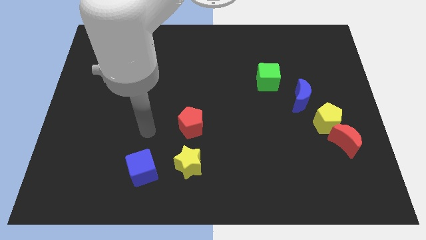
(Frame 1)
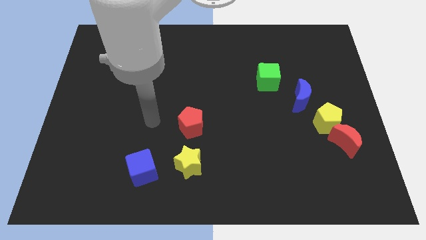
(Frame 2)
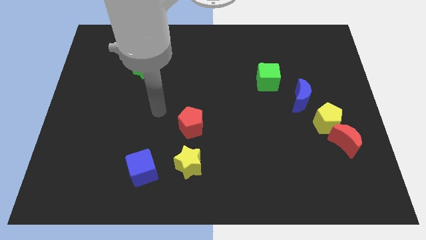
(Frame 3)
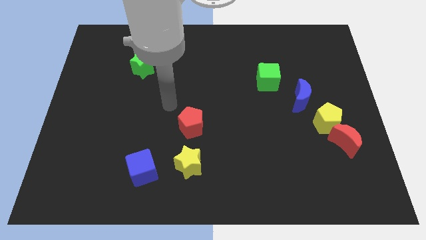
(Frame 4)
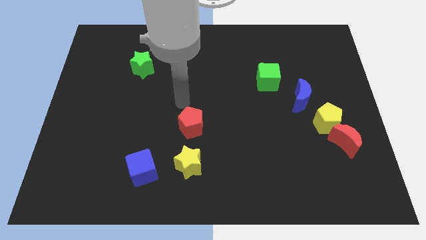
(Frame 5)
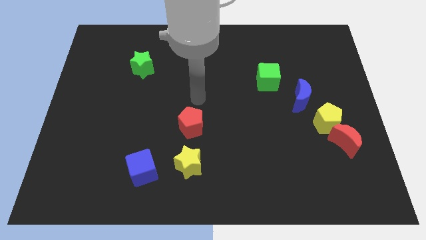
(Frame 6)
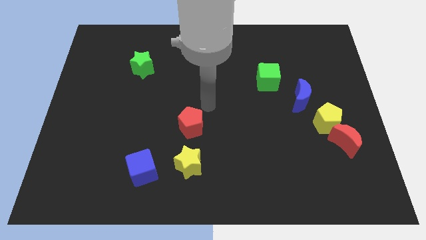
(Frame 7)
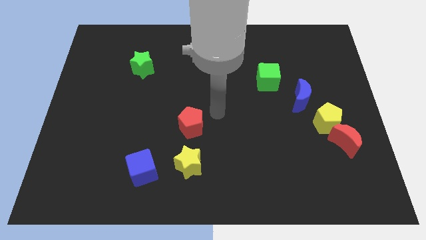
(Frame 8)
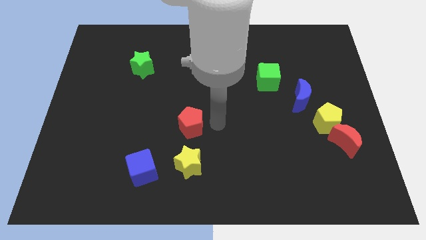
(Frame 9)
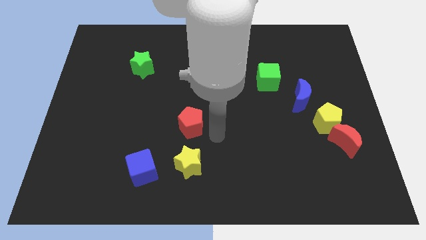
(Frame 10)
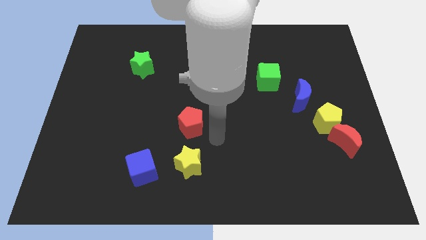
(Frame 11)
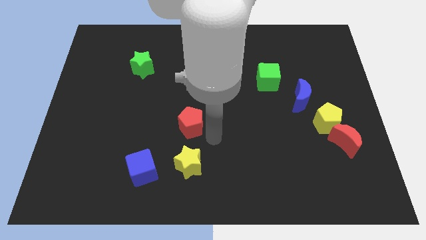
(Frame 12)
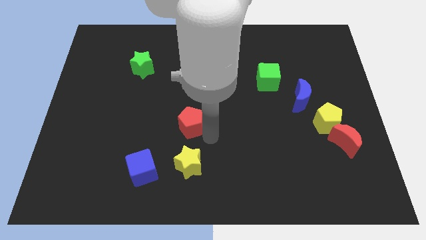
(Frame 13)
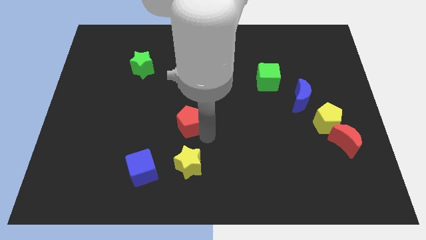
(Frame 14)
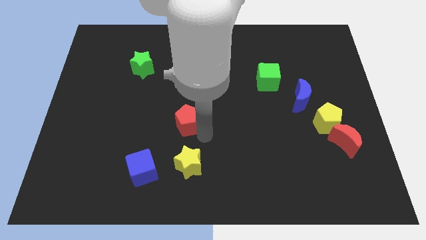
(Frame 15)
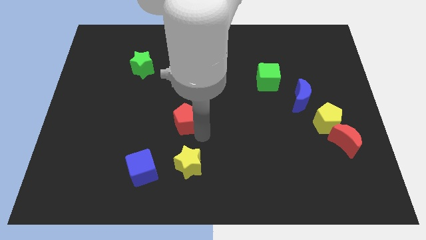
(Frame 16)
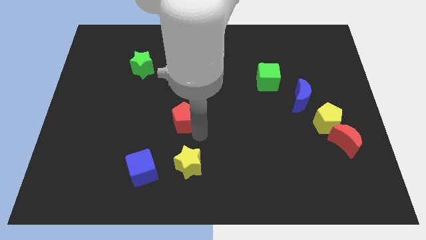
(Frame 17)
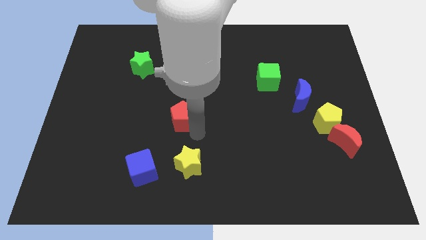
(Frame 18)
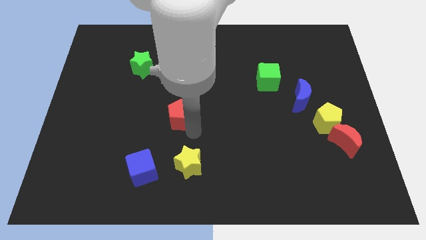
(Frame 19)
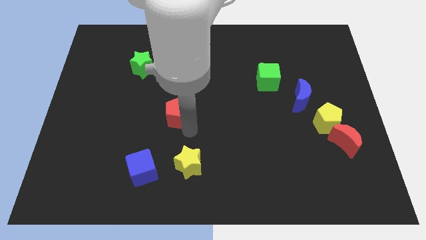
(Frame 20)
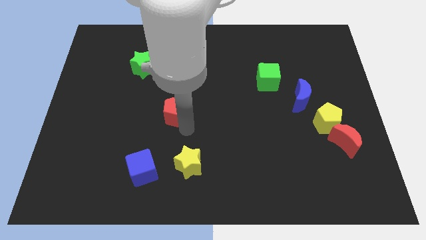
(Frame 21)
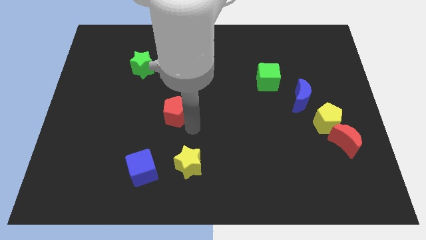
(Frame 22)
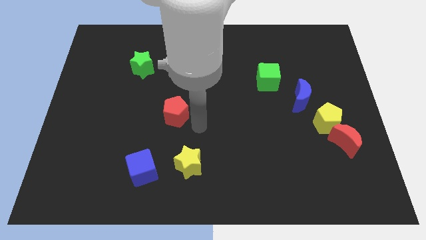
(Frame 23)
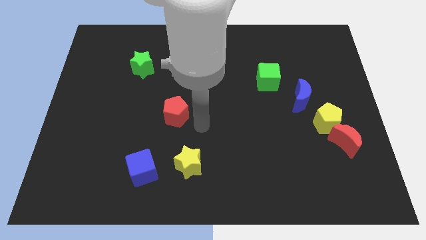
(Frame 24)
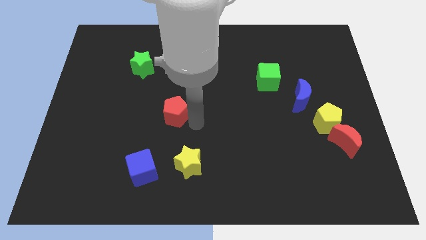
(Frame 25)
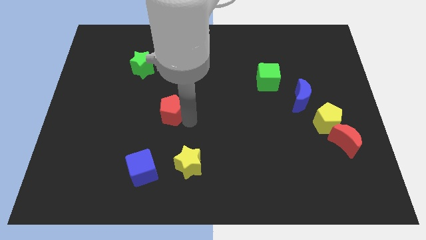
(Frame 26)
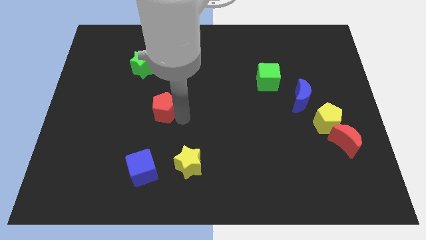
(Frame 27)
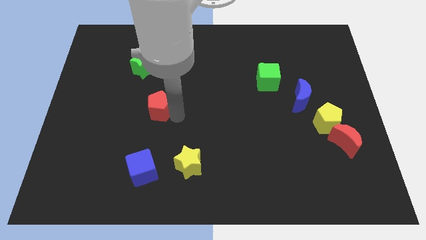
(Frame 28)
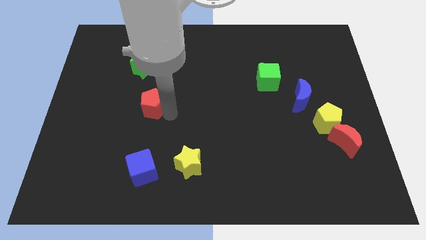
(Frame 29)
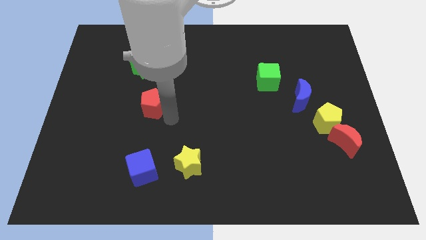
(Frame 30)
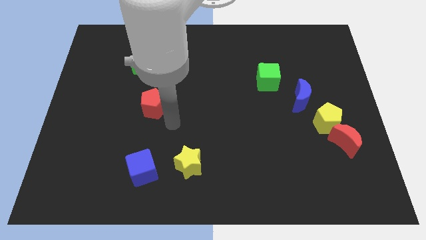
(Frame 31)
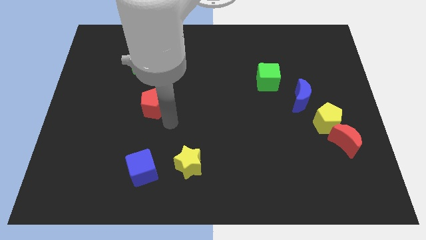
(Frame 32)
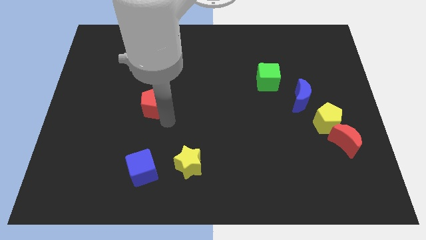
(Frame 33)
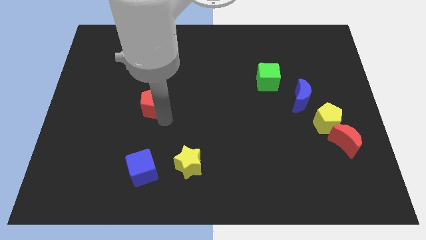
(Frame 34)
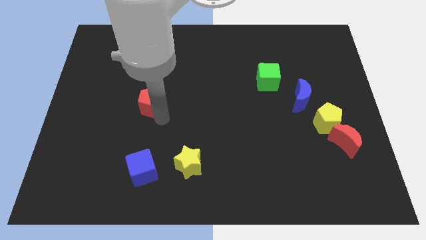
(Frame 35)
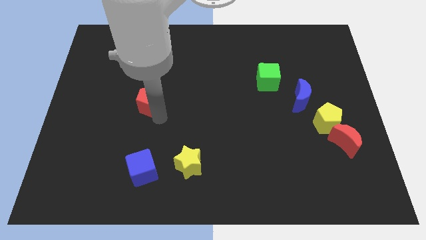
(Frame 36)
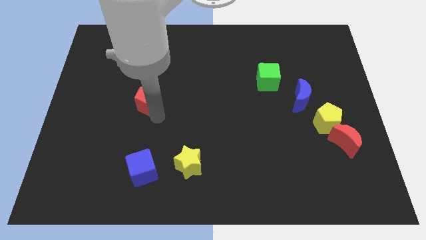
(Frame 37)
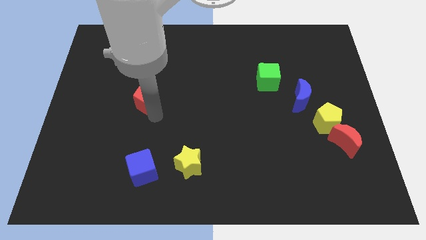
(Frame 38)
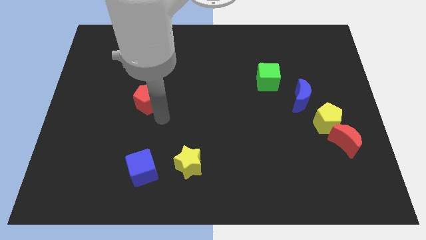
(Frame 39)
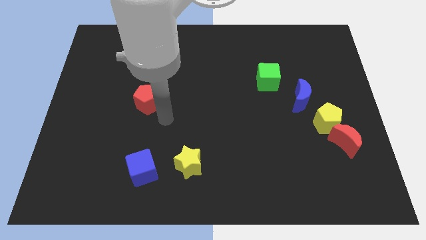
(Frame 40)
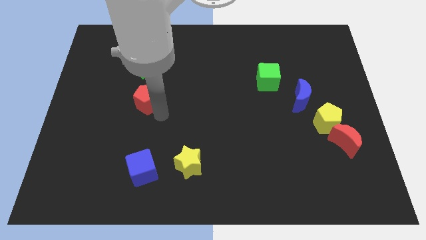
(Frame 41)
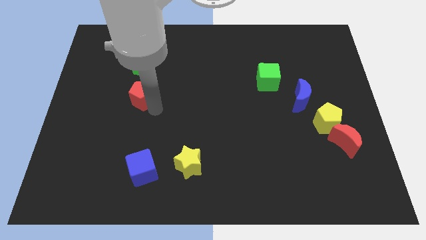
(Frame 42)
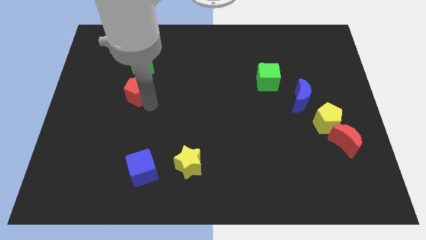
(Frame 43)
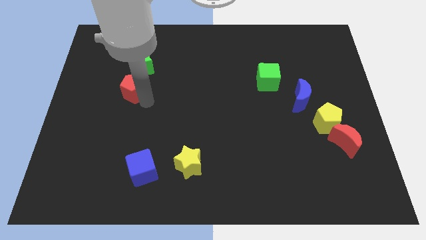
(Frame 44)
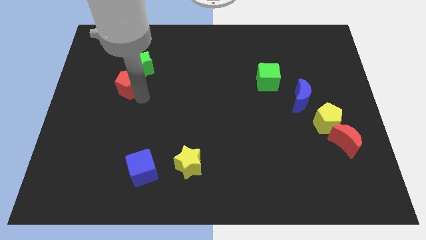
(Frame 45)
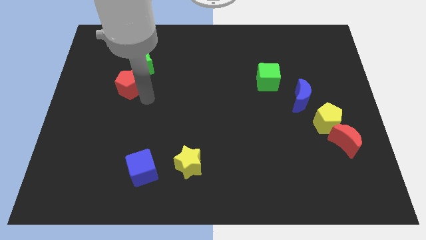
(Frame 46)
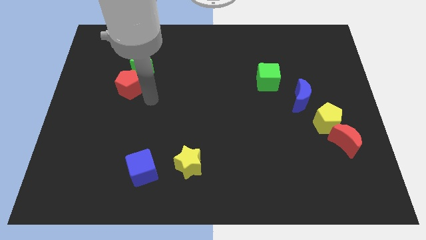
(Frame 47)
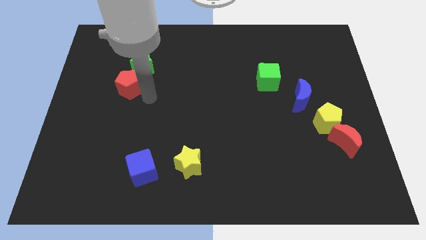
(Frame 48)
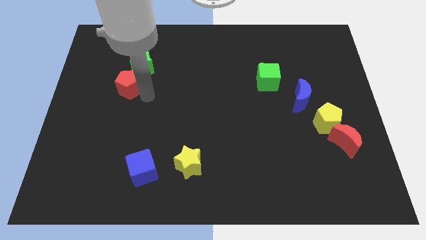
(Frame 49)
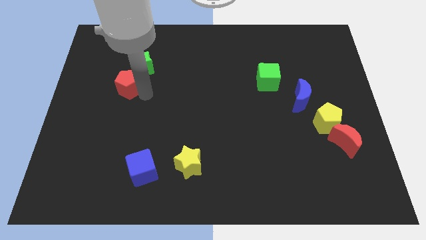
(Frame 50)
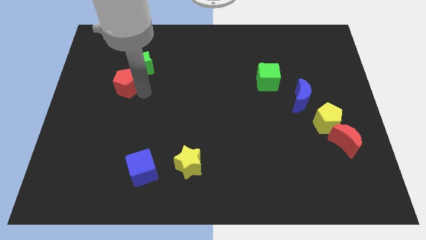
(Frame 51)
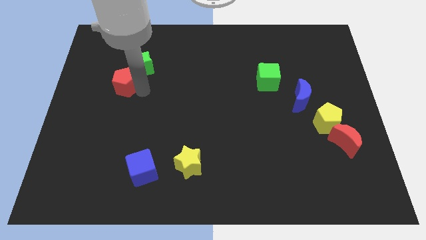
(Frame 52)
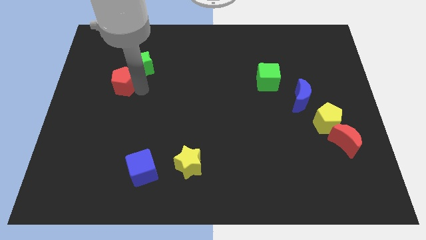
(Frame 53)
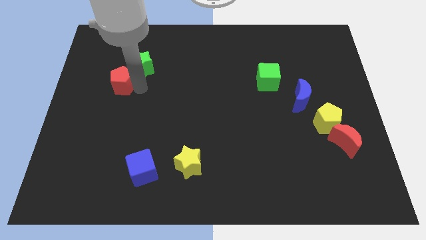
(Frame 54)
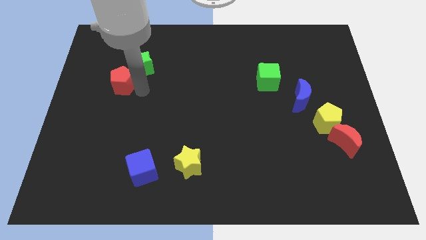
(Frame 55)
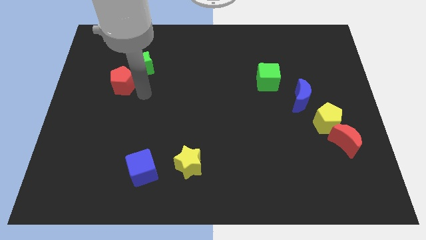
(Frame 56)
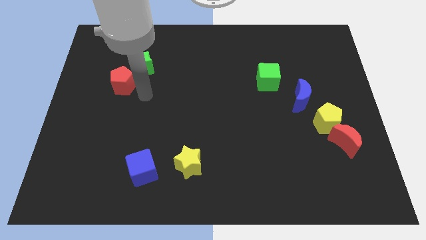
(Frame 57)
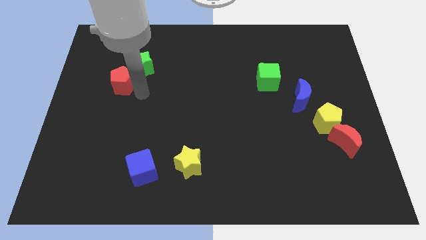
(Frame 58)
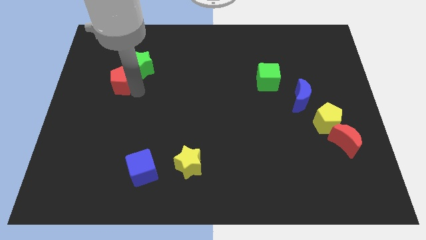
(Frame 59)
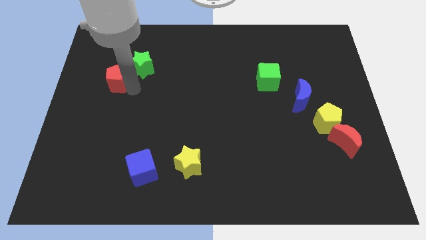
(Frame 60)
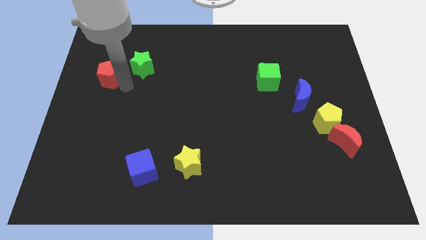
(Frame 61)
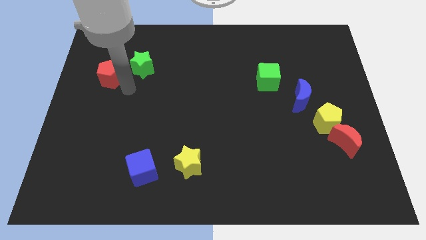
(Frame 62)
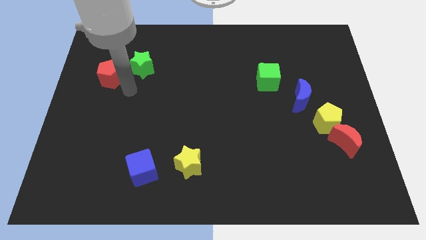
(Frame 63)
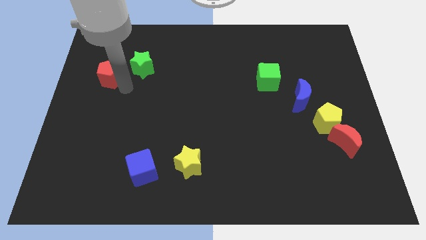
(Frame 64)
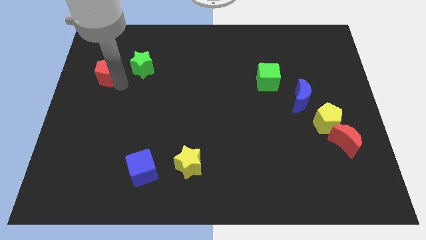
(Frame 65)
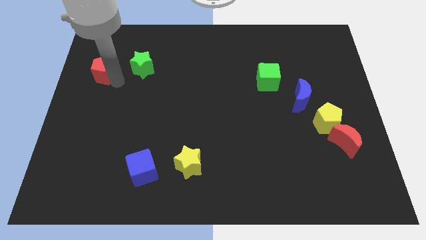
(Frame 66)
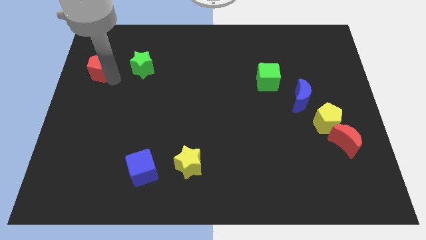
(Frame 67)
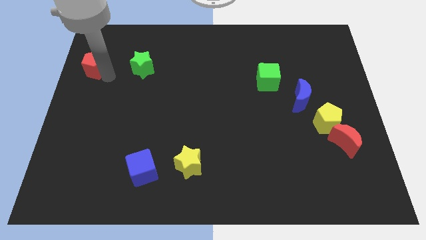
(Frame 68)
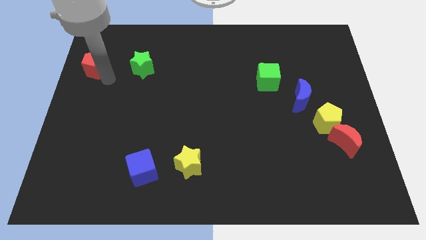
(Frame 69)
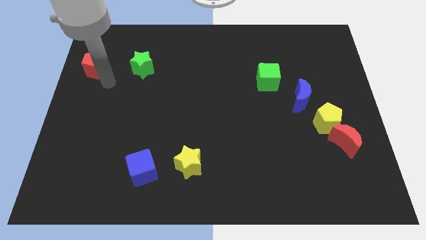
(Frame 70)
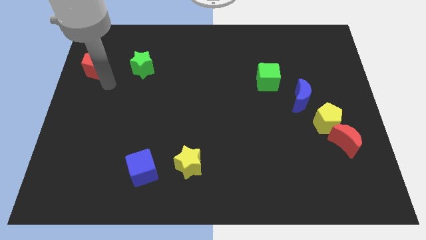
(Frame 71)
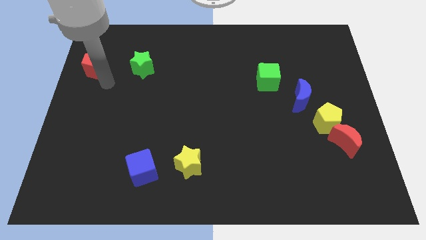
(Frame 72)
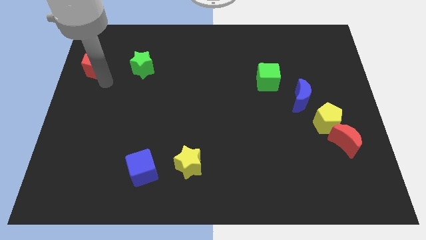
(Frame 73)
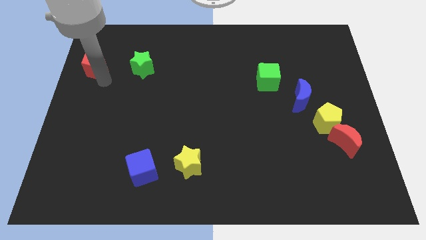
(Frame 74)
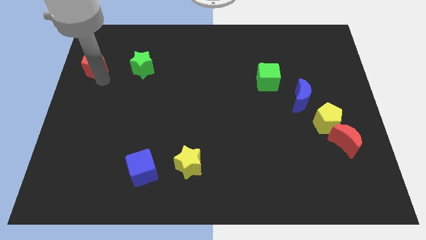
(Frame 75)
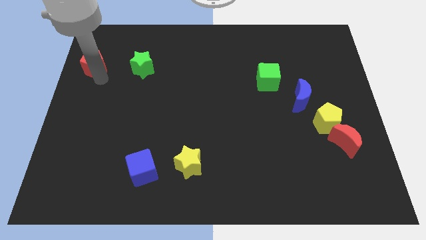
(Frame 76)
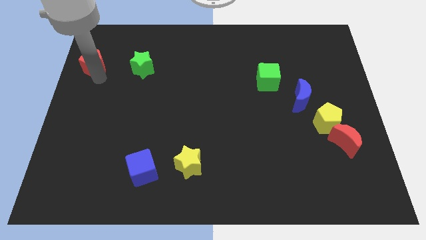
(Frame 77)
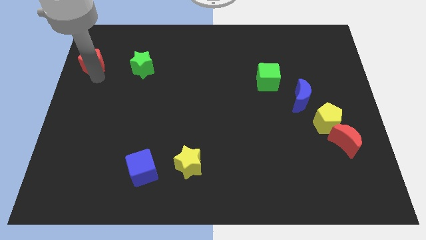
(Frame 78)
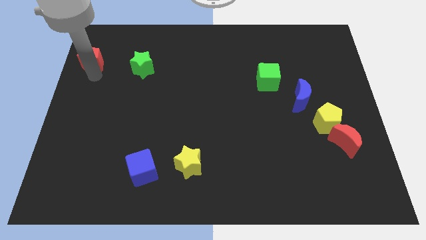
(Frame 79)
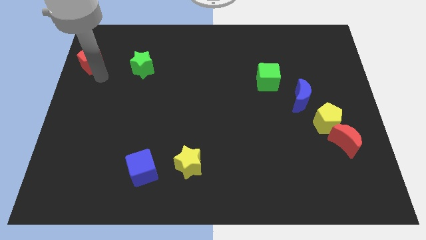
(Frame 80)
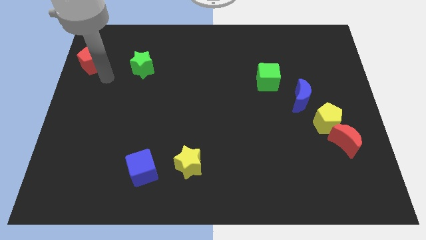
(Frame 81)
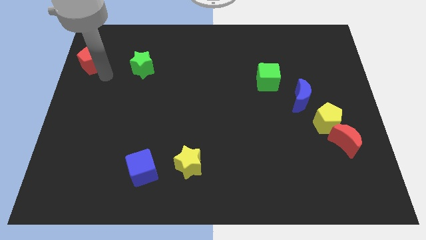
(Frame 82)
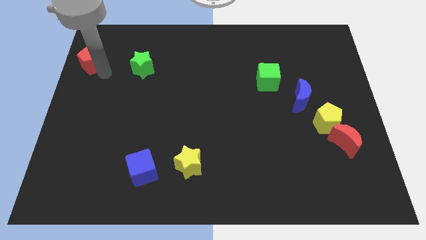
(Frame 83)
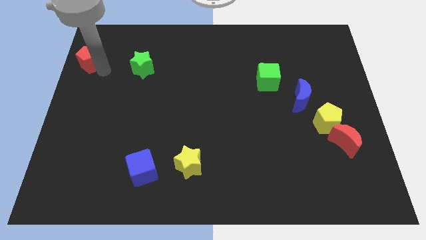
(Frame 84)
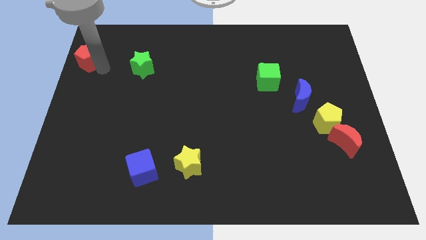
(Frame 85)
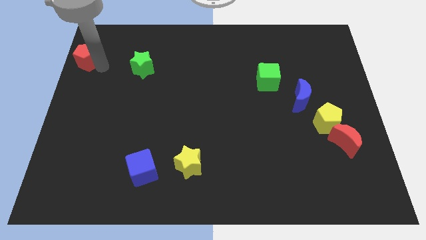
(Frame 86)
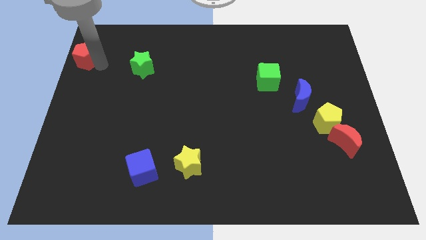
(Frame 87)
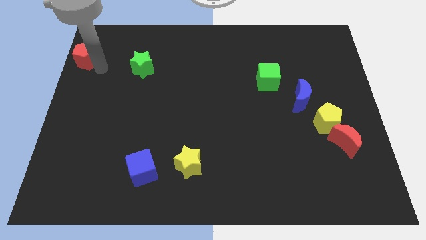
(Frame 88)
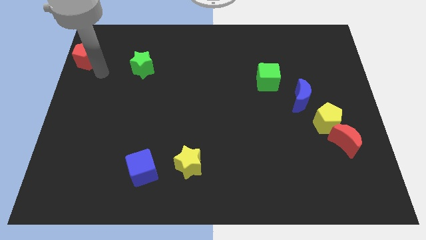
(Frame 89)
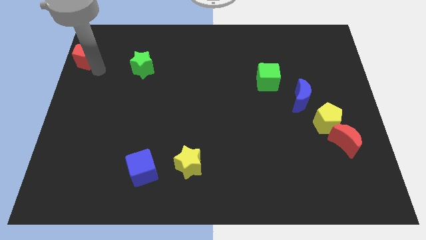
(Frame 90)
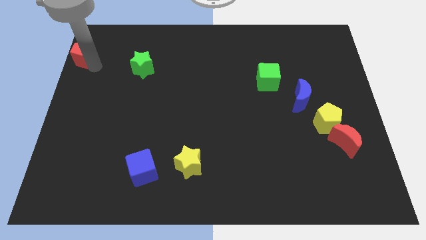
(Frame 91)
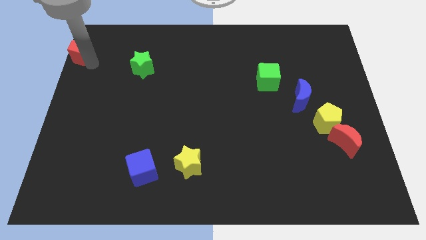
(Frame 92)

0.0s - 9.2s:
put the red pentagon to the top left
